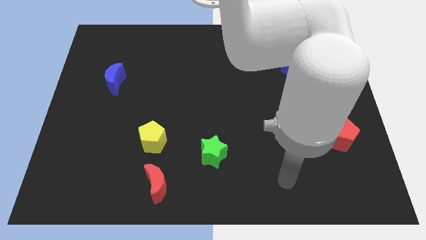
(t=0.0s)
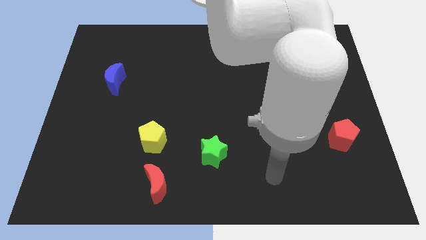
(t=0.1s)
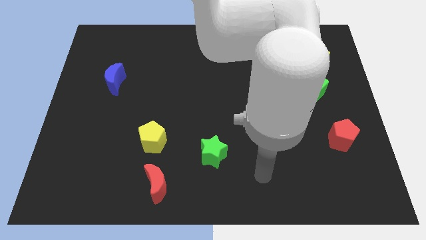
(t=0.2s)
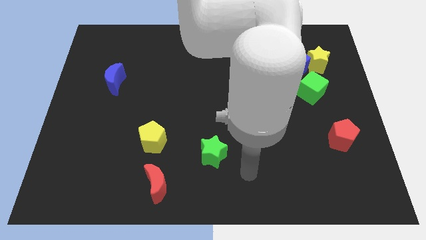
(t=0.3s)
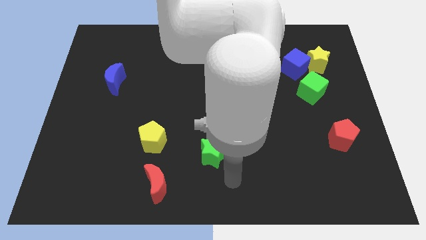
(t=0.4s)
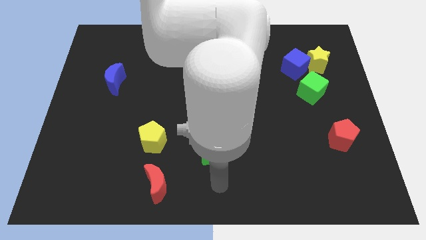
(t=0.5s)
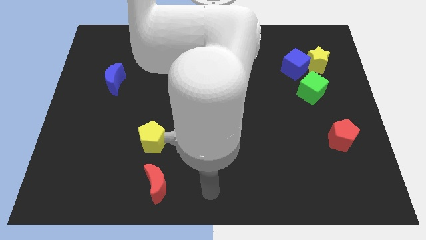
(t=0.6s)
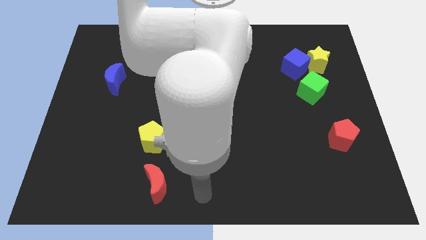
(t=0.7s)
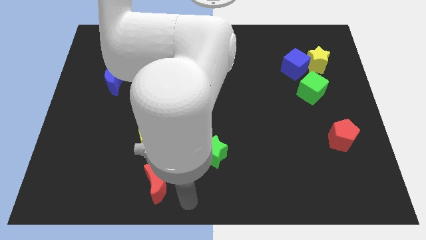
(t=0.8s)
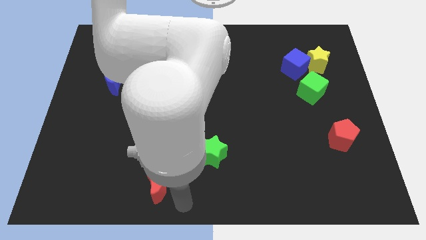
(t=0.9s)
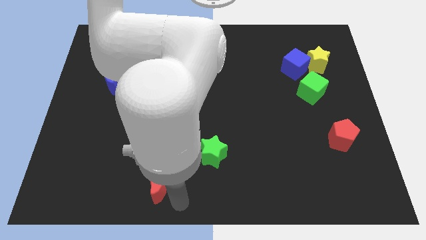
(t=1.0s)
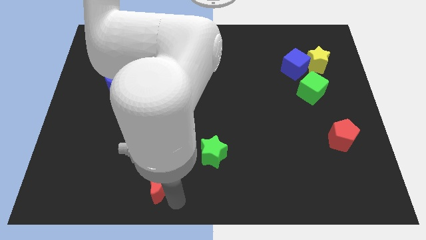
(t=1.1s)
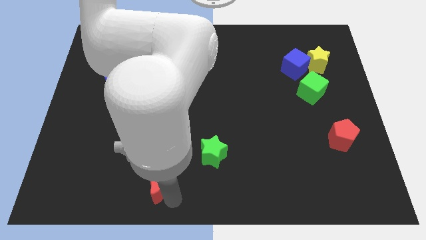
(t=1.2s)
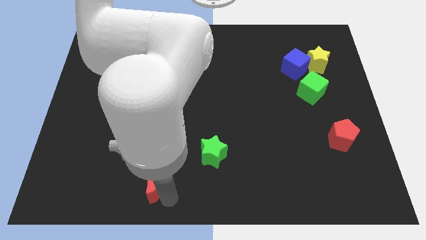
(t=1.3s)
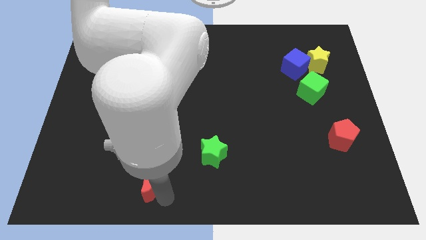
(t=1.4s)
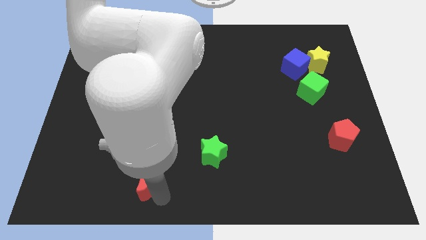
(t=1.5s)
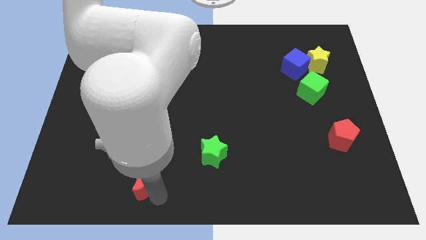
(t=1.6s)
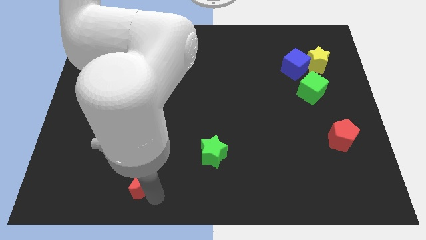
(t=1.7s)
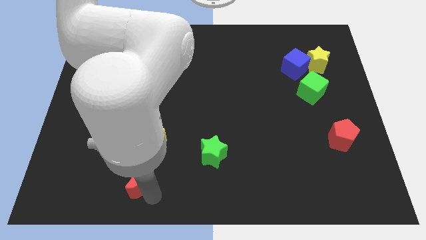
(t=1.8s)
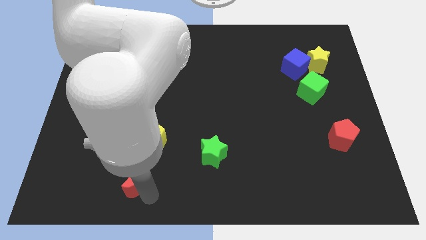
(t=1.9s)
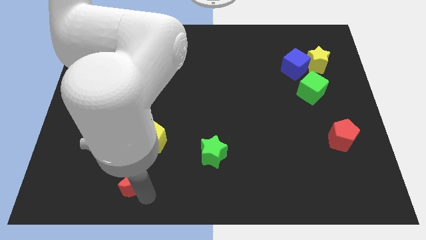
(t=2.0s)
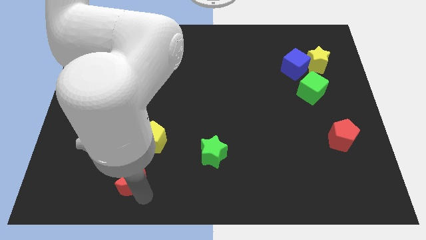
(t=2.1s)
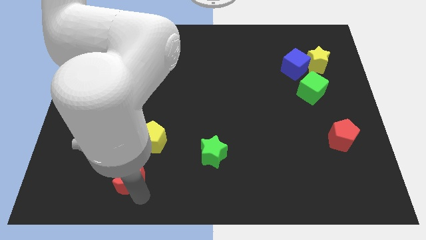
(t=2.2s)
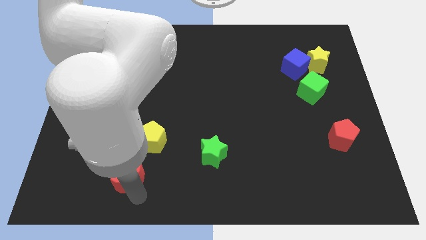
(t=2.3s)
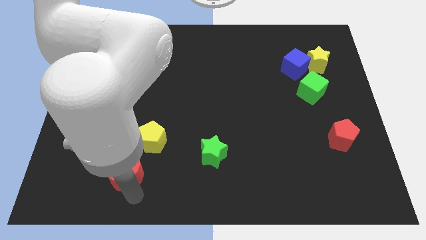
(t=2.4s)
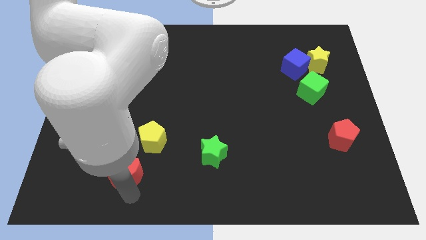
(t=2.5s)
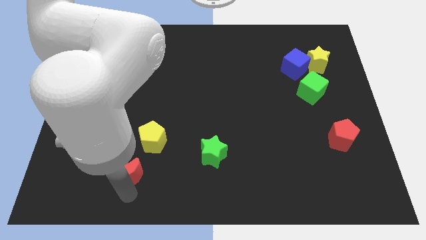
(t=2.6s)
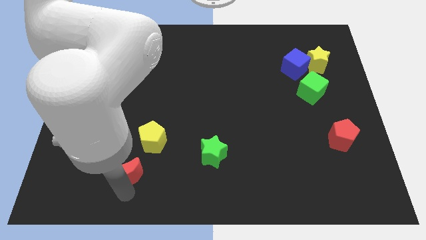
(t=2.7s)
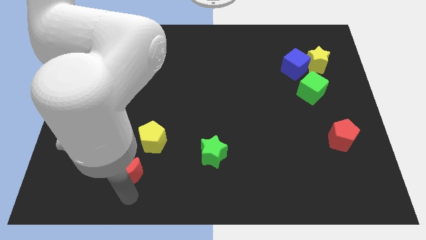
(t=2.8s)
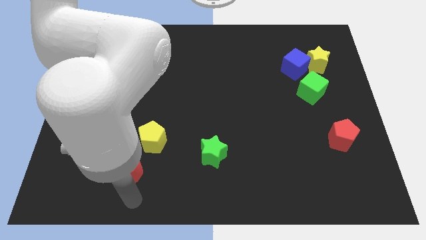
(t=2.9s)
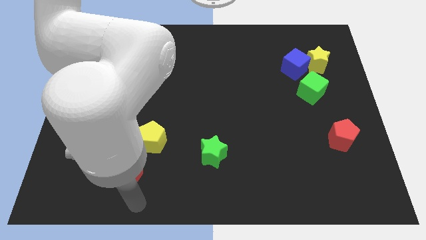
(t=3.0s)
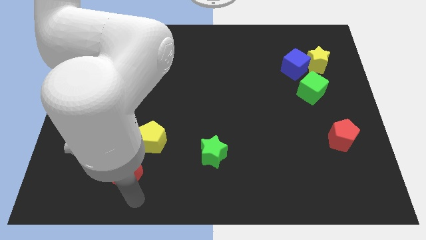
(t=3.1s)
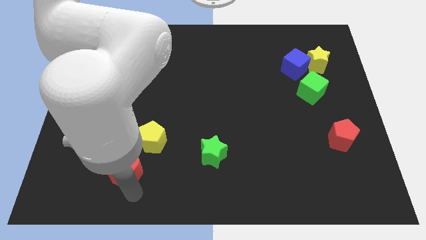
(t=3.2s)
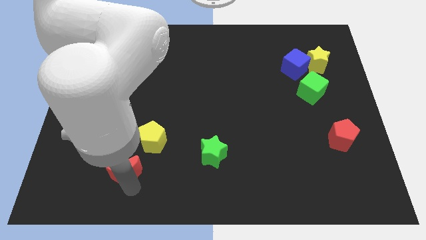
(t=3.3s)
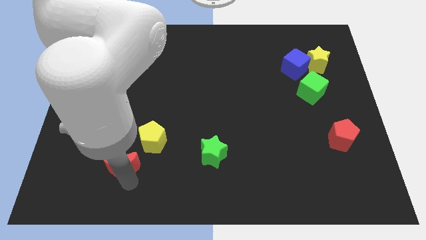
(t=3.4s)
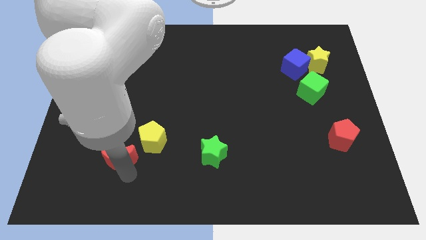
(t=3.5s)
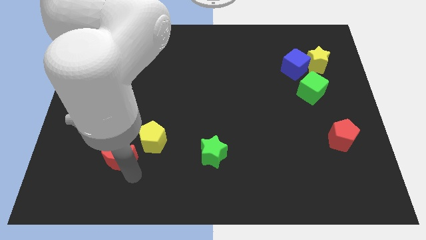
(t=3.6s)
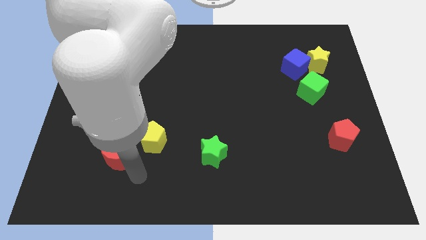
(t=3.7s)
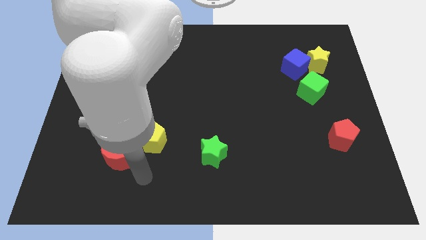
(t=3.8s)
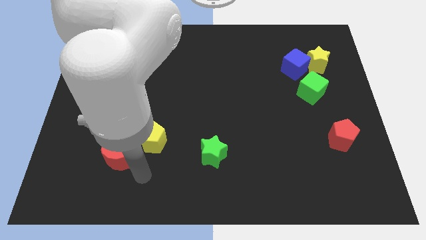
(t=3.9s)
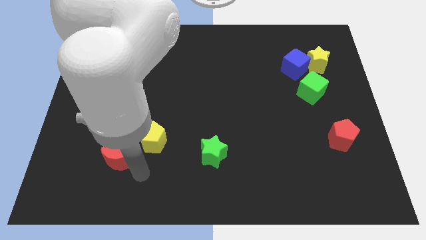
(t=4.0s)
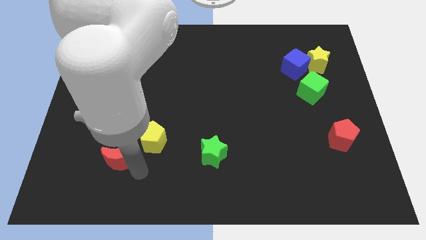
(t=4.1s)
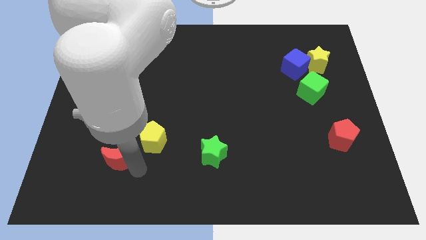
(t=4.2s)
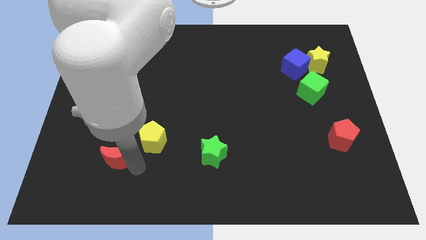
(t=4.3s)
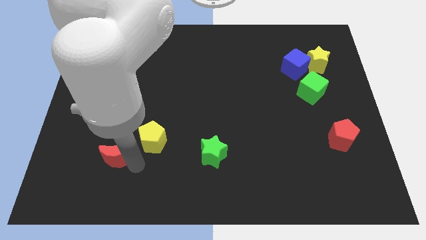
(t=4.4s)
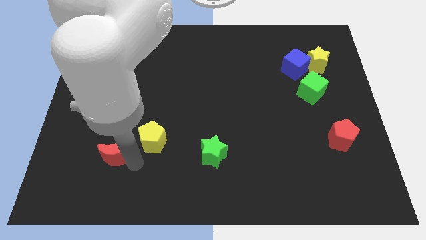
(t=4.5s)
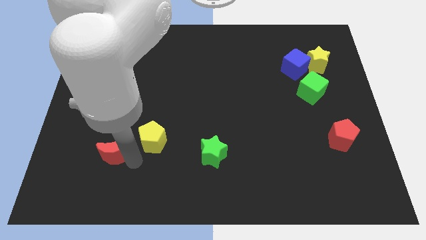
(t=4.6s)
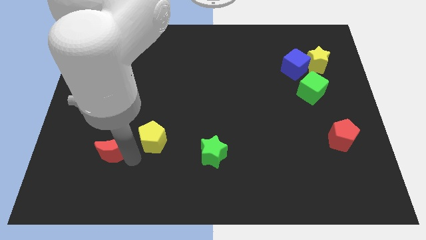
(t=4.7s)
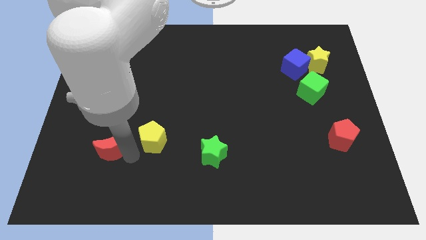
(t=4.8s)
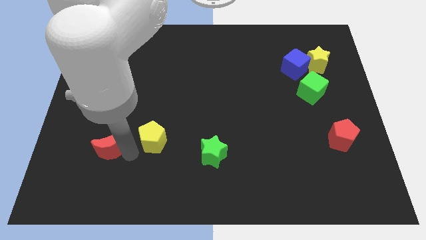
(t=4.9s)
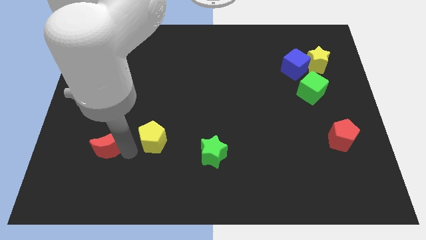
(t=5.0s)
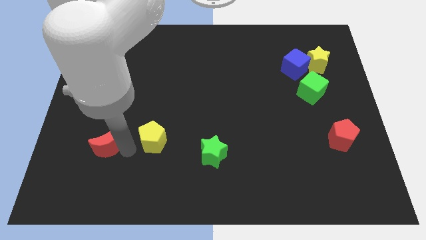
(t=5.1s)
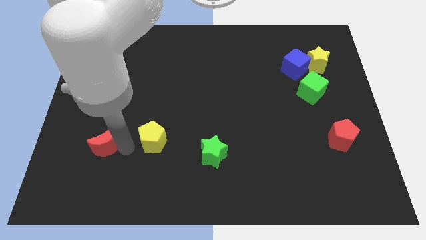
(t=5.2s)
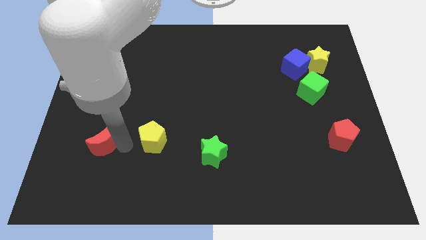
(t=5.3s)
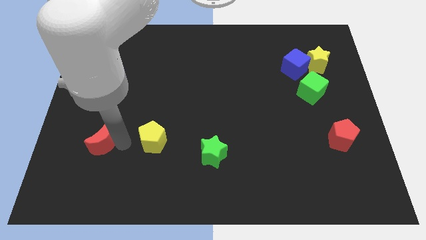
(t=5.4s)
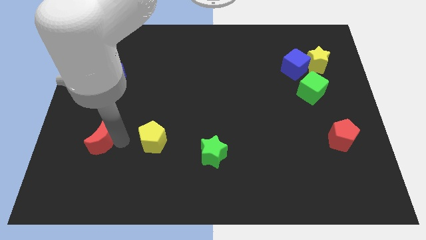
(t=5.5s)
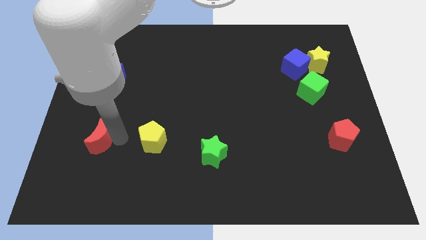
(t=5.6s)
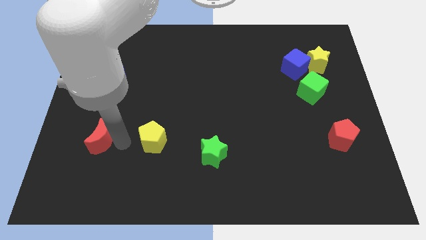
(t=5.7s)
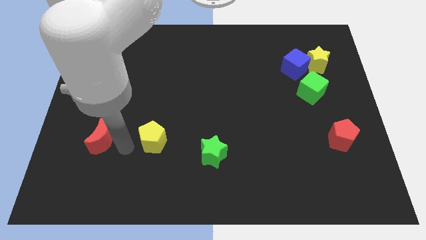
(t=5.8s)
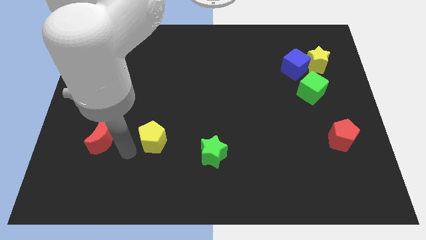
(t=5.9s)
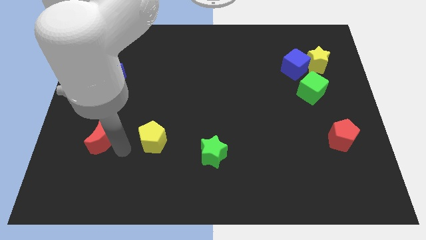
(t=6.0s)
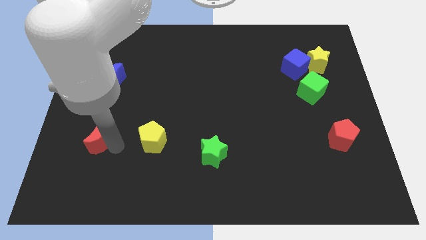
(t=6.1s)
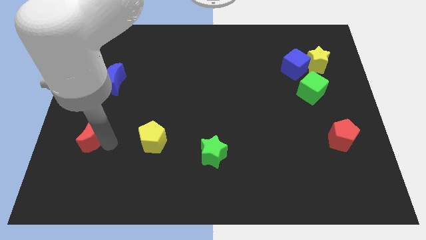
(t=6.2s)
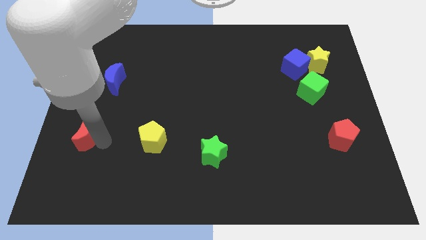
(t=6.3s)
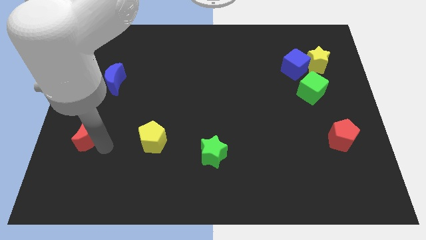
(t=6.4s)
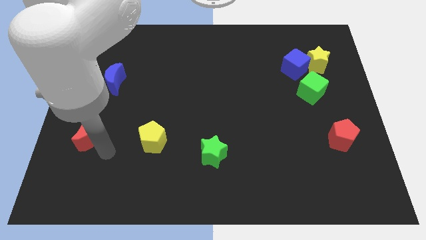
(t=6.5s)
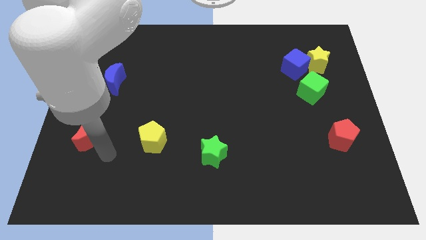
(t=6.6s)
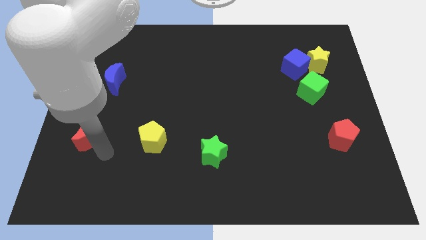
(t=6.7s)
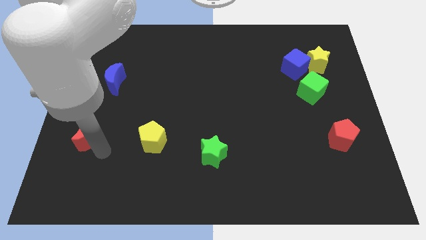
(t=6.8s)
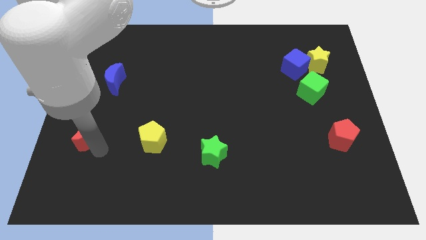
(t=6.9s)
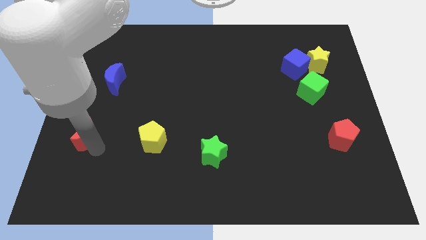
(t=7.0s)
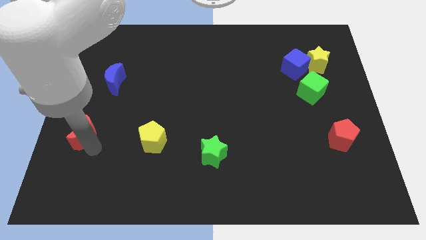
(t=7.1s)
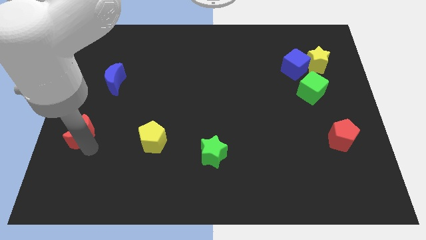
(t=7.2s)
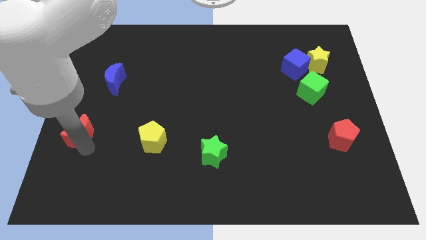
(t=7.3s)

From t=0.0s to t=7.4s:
move the red moon to the left side
